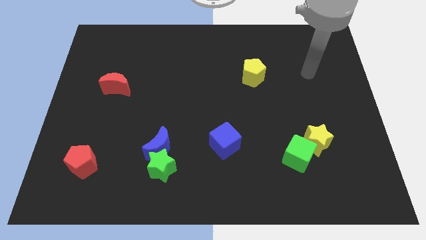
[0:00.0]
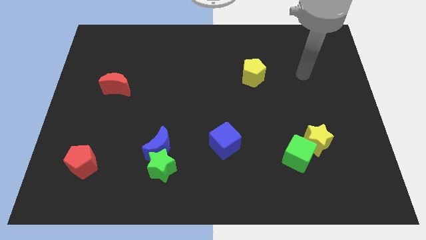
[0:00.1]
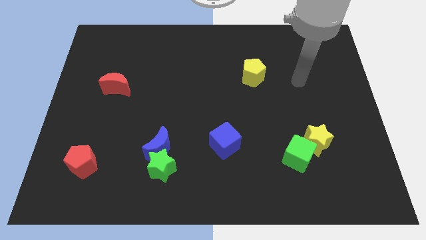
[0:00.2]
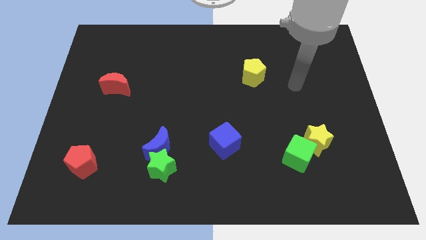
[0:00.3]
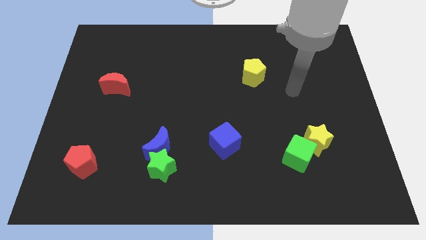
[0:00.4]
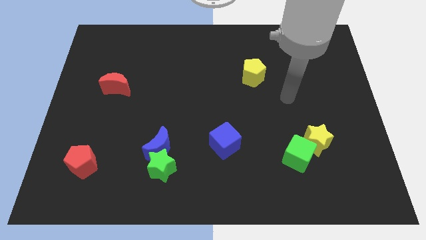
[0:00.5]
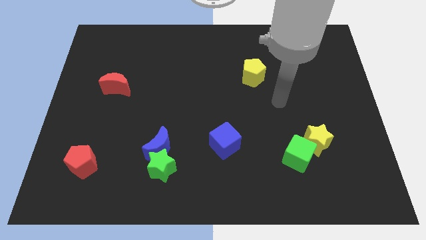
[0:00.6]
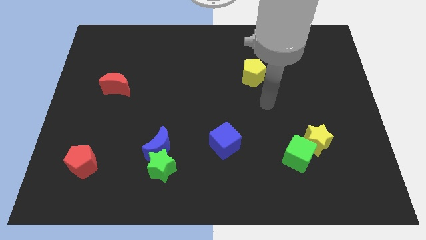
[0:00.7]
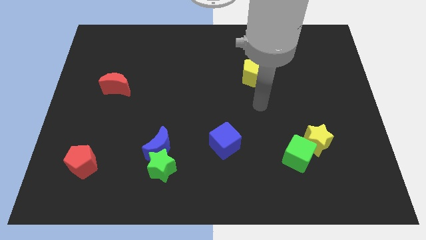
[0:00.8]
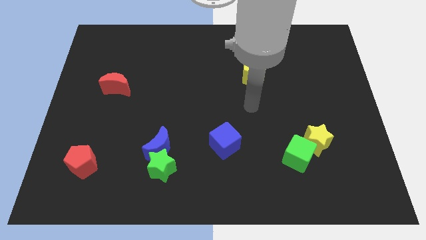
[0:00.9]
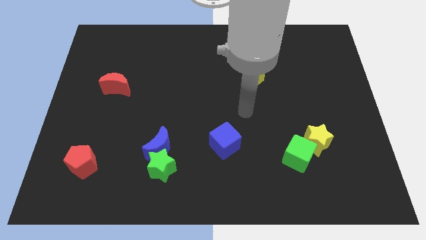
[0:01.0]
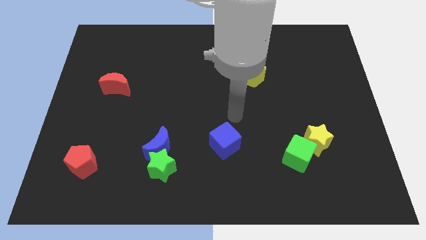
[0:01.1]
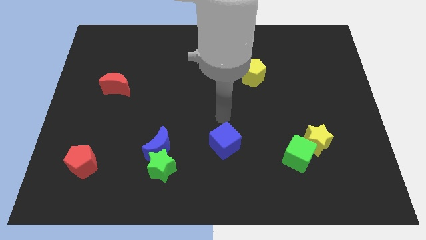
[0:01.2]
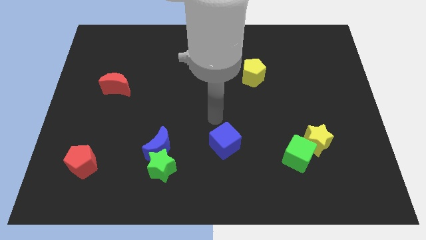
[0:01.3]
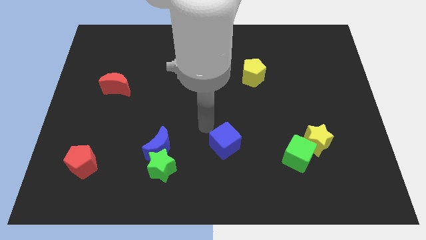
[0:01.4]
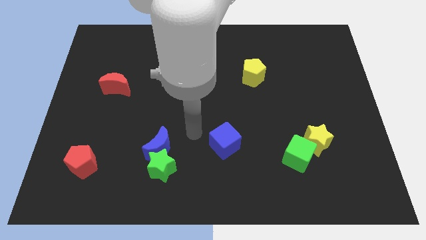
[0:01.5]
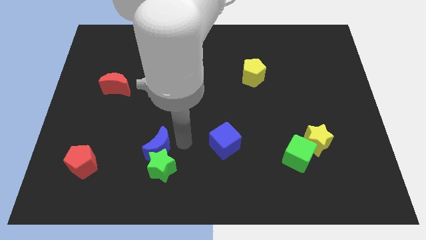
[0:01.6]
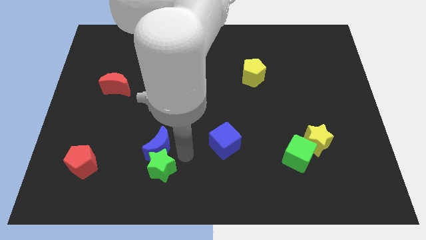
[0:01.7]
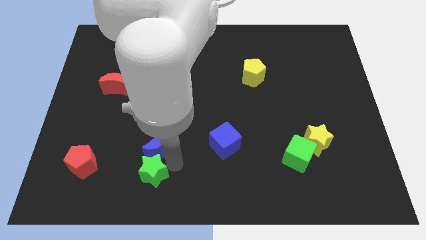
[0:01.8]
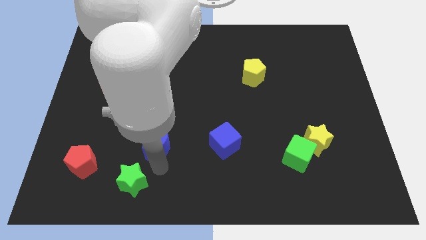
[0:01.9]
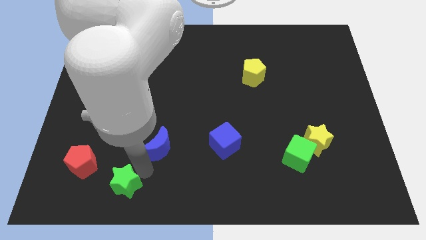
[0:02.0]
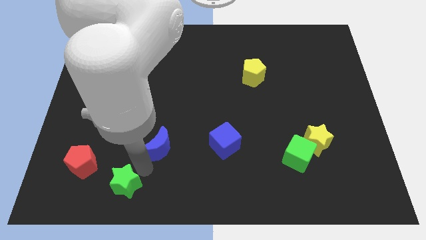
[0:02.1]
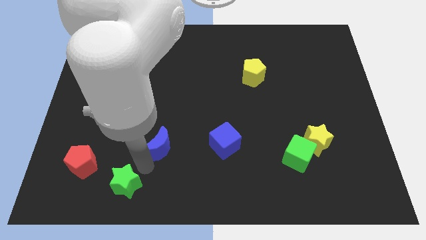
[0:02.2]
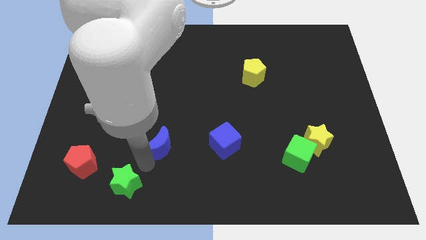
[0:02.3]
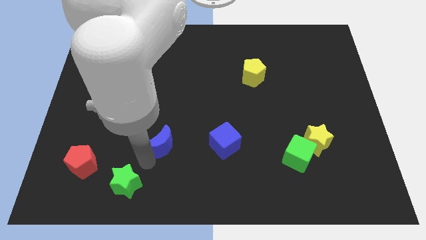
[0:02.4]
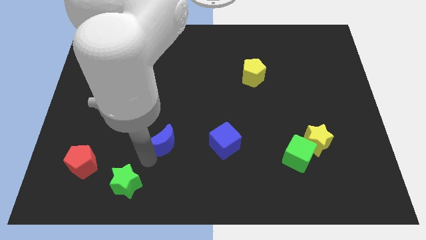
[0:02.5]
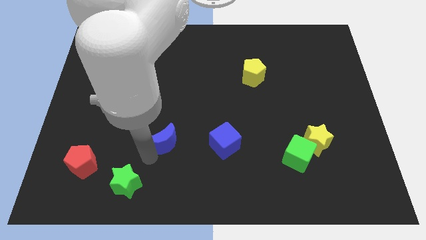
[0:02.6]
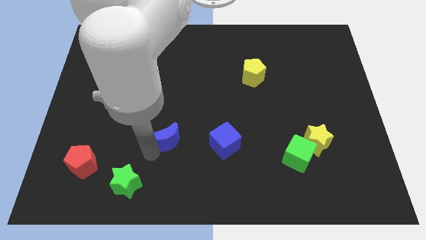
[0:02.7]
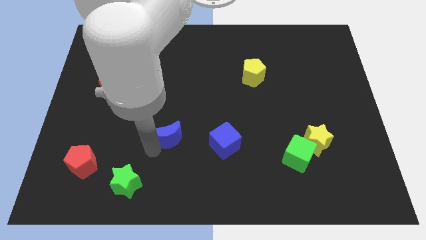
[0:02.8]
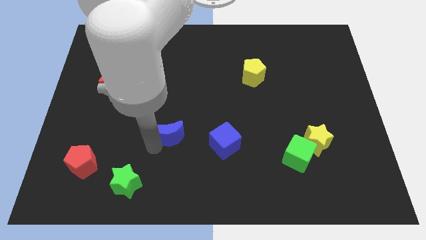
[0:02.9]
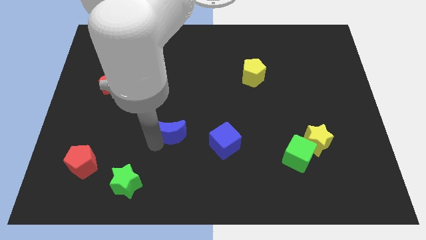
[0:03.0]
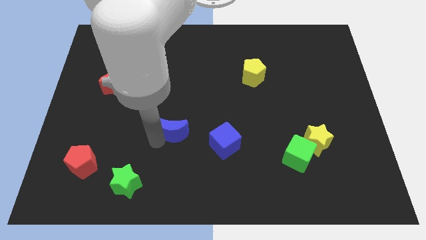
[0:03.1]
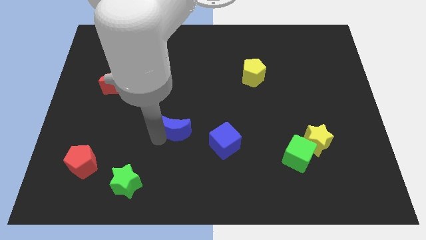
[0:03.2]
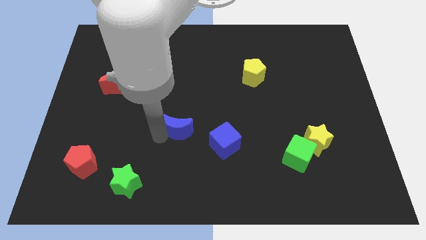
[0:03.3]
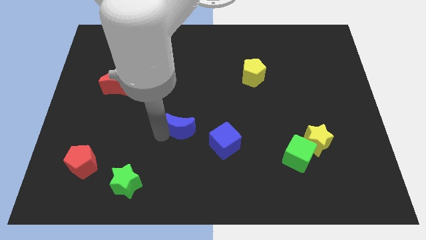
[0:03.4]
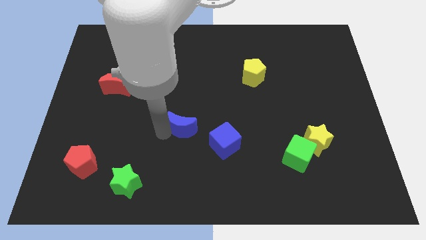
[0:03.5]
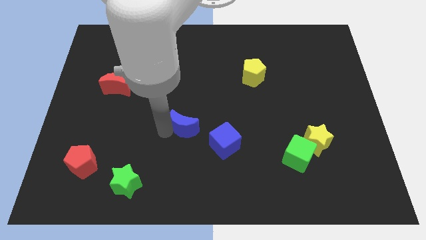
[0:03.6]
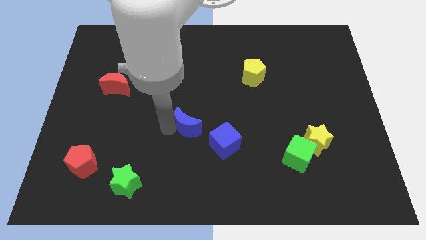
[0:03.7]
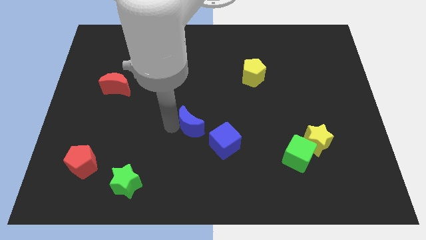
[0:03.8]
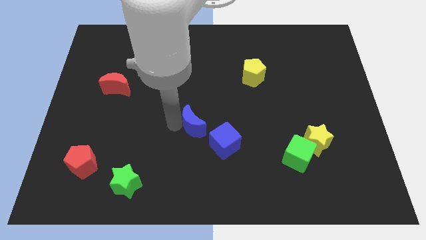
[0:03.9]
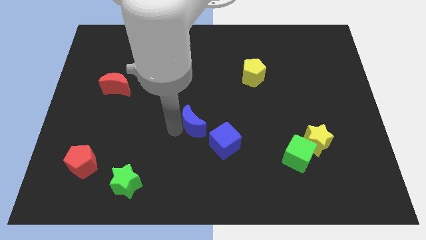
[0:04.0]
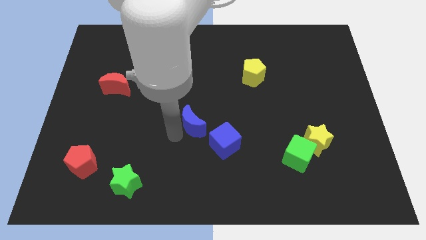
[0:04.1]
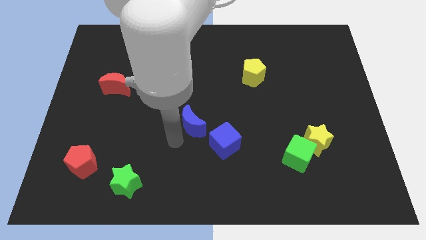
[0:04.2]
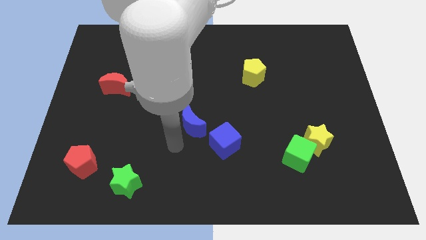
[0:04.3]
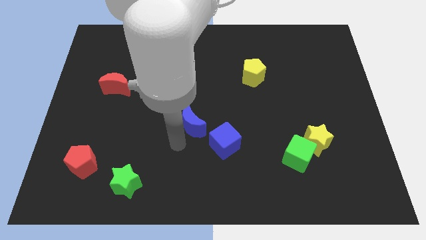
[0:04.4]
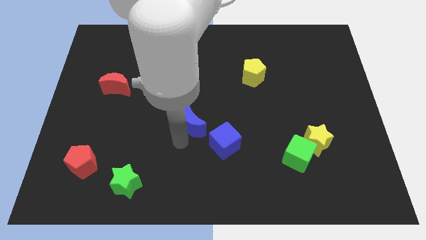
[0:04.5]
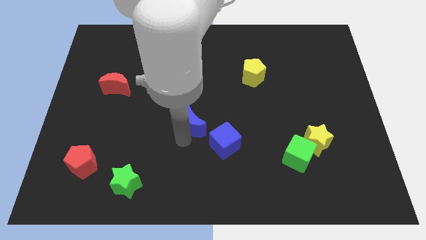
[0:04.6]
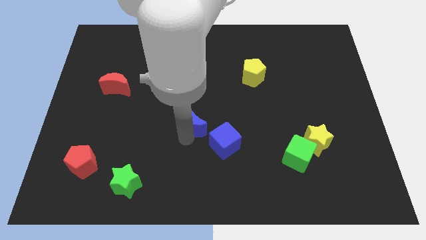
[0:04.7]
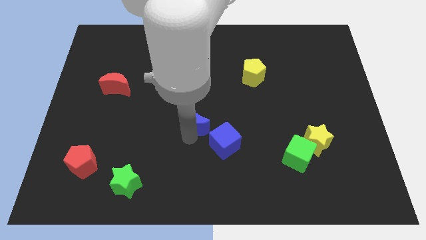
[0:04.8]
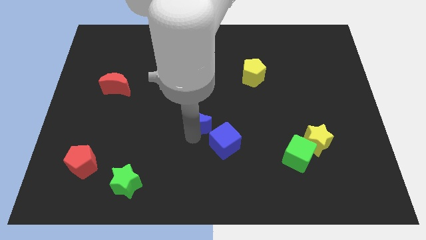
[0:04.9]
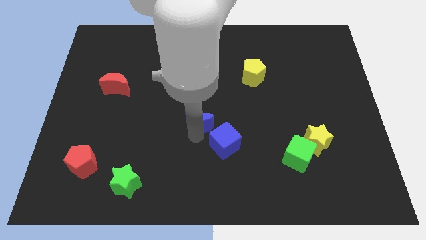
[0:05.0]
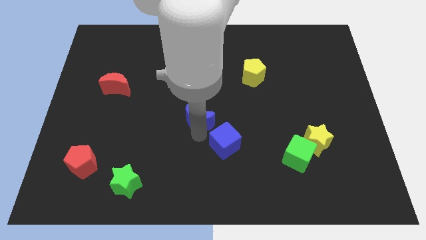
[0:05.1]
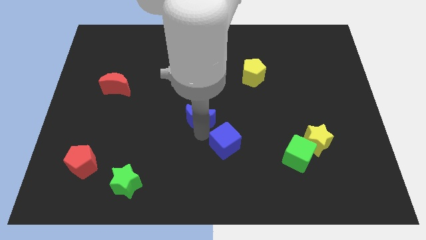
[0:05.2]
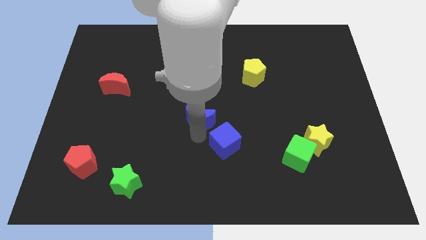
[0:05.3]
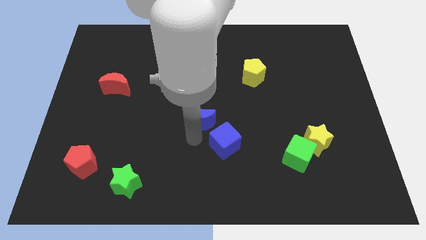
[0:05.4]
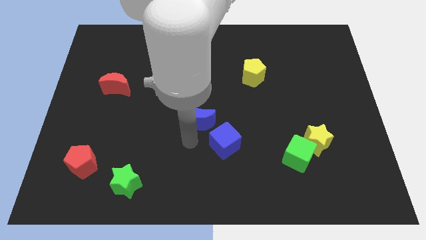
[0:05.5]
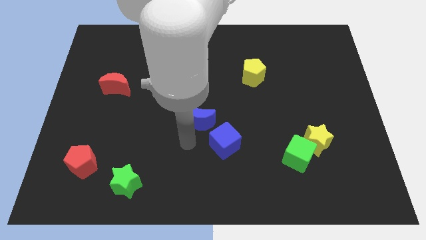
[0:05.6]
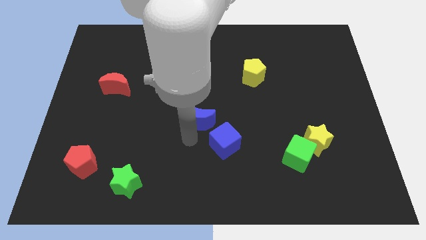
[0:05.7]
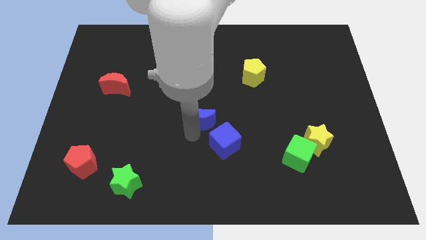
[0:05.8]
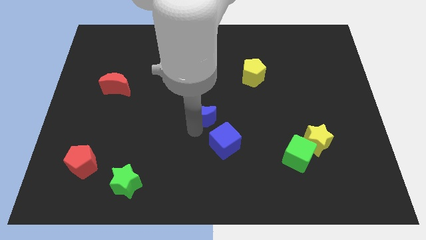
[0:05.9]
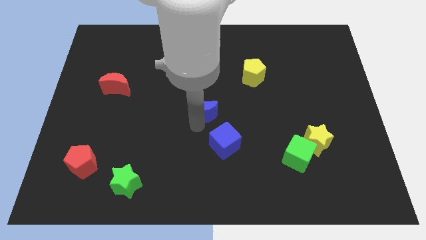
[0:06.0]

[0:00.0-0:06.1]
move the blue moon above the blue cube
